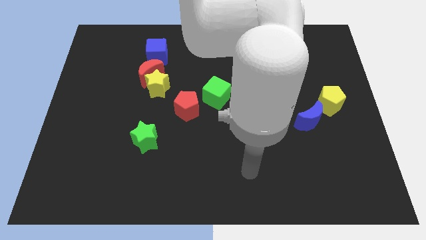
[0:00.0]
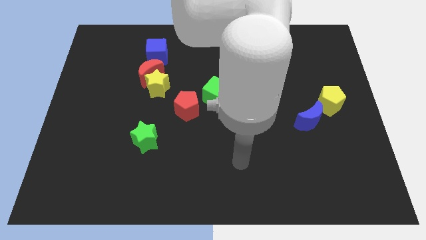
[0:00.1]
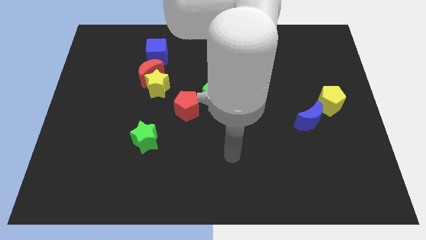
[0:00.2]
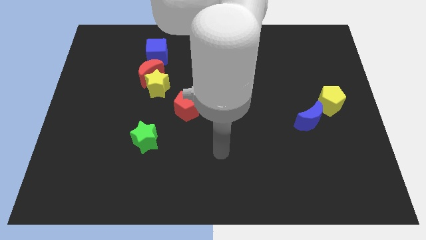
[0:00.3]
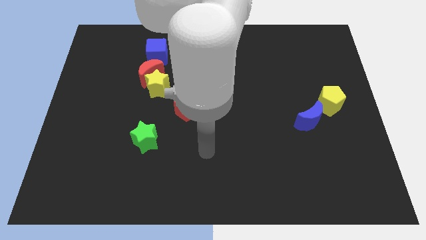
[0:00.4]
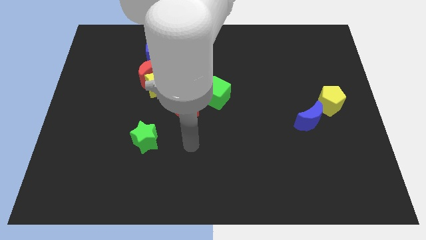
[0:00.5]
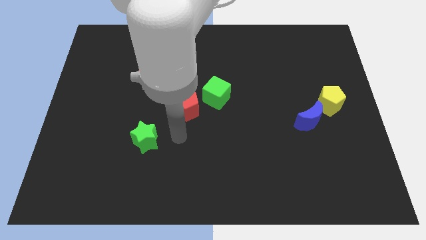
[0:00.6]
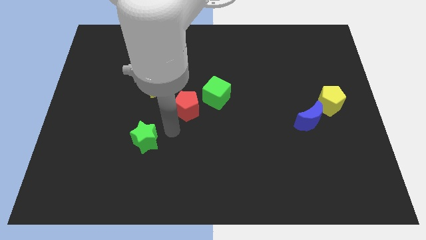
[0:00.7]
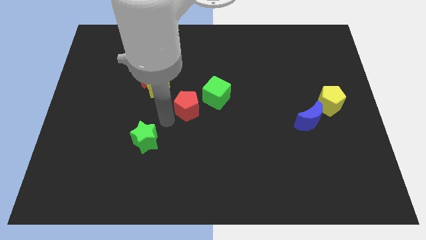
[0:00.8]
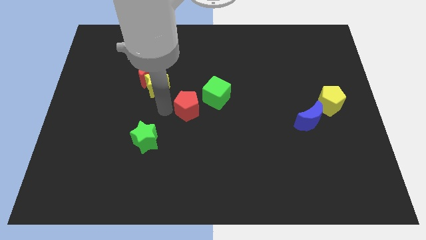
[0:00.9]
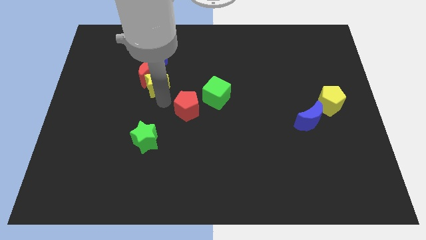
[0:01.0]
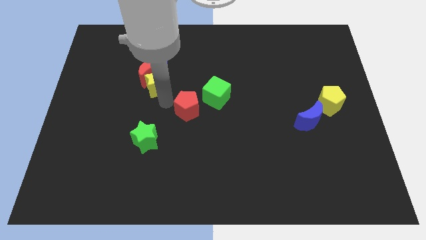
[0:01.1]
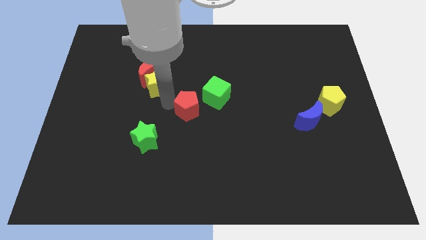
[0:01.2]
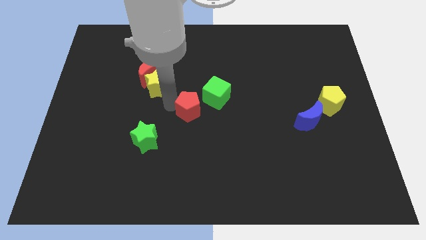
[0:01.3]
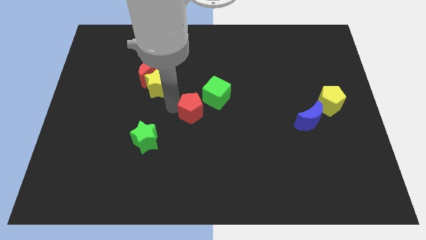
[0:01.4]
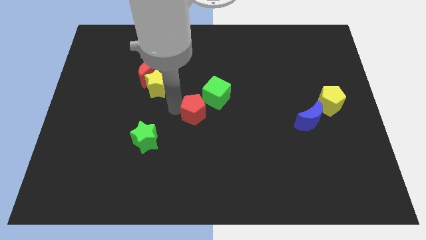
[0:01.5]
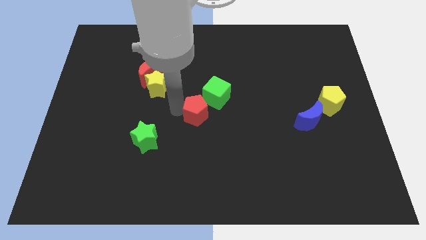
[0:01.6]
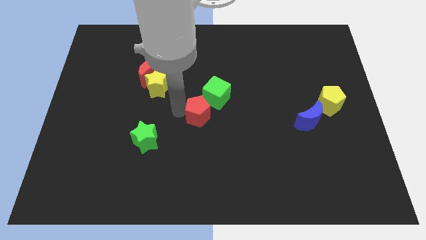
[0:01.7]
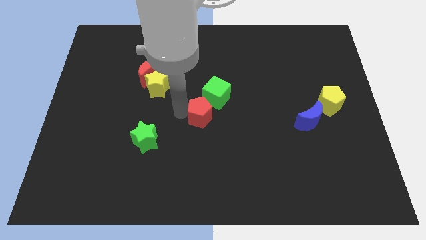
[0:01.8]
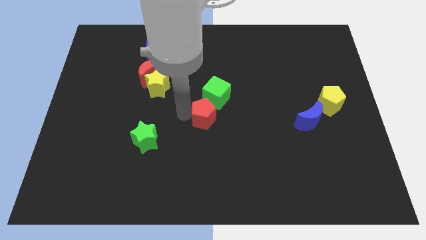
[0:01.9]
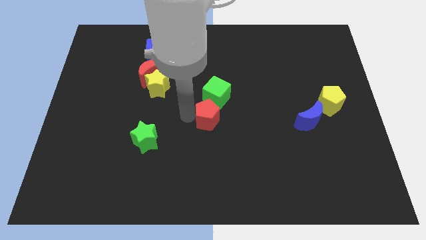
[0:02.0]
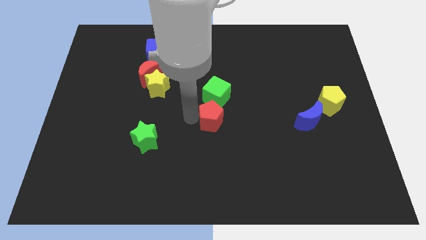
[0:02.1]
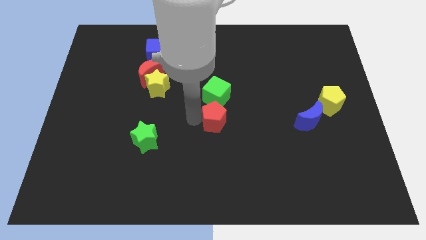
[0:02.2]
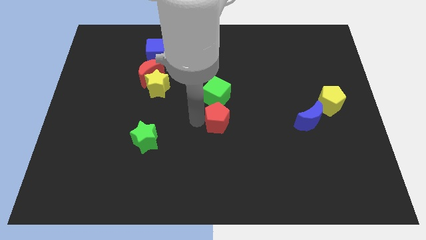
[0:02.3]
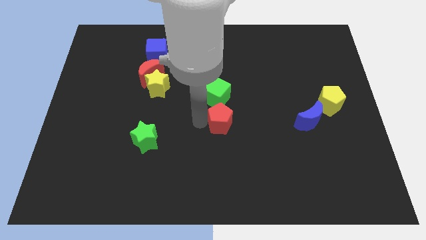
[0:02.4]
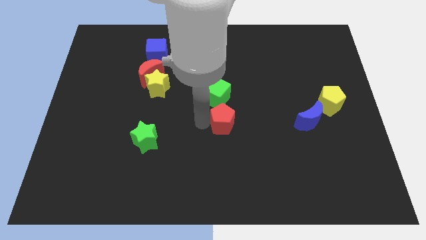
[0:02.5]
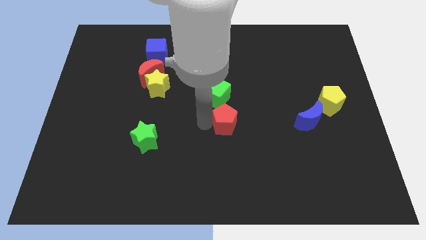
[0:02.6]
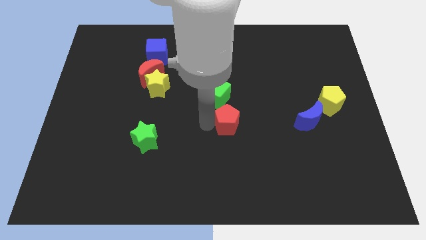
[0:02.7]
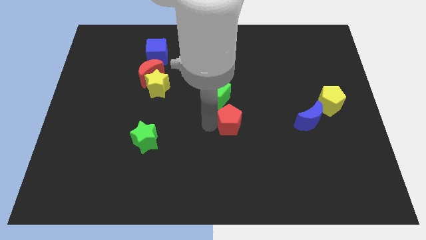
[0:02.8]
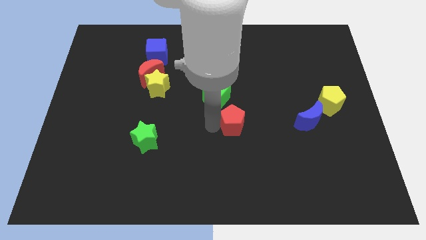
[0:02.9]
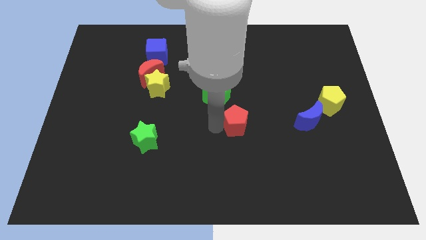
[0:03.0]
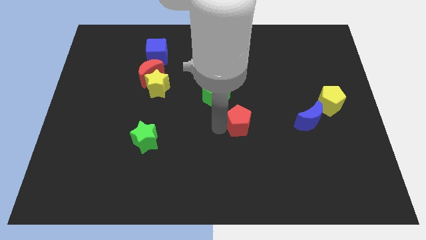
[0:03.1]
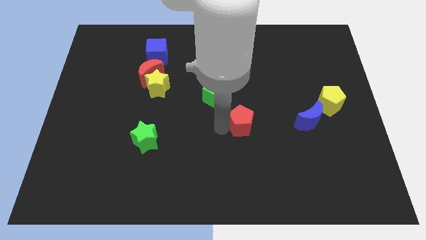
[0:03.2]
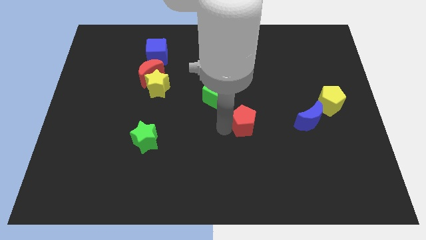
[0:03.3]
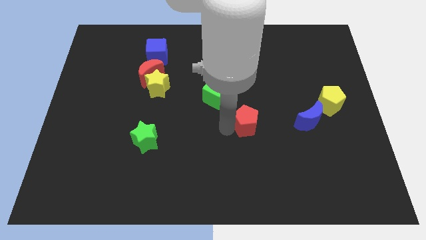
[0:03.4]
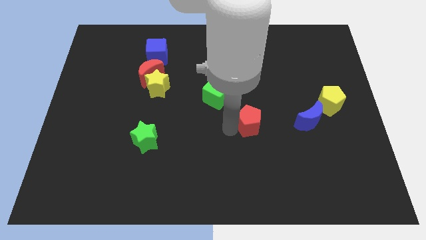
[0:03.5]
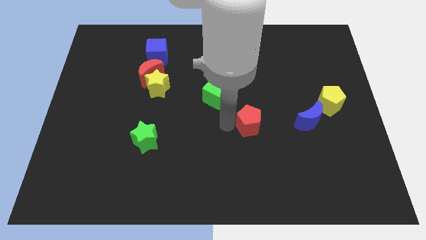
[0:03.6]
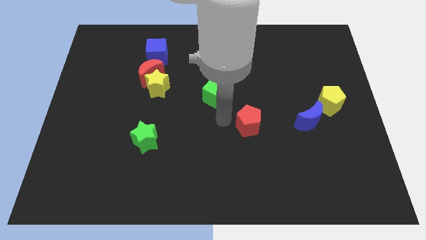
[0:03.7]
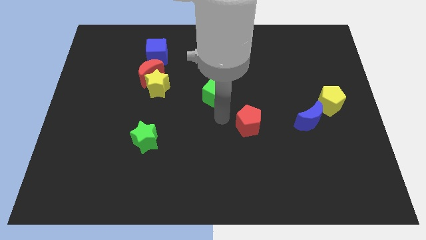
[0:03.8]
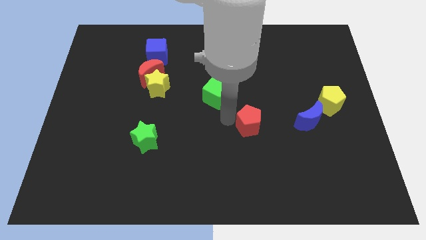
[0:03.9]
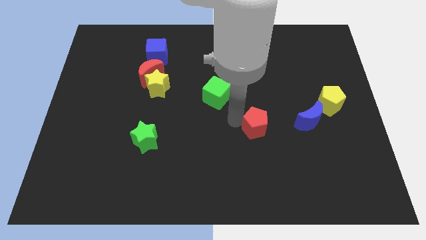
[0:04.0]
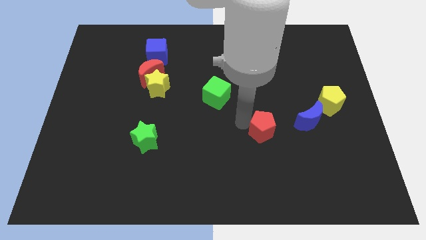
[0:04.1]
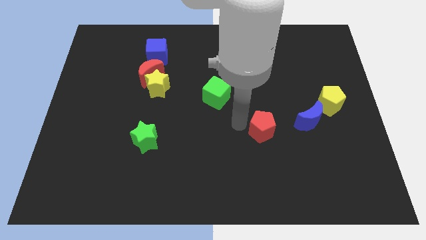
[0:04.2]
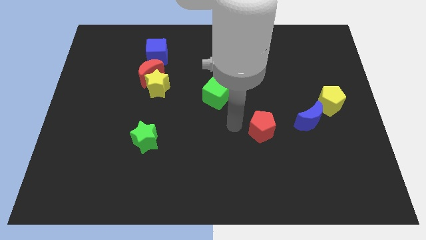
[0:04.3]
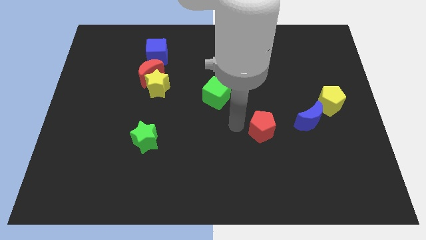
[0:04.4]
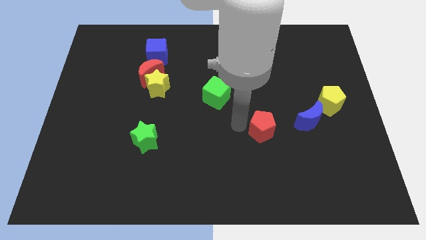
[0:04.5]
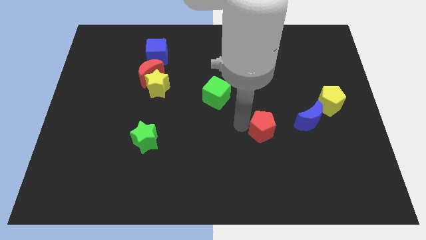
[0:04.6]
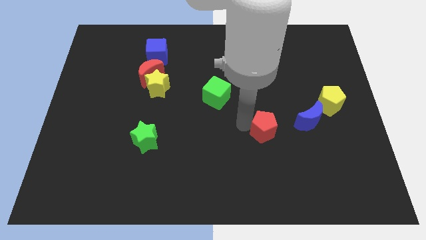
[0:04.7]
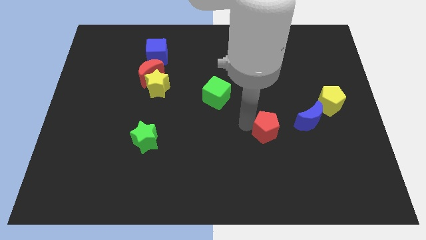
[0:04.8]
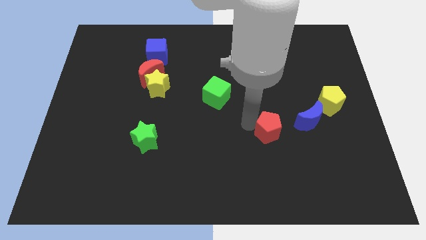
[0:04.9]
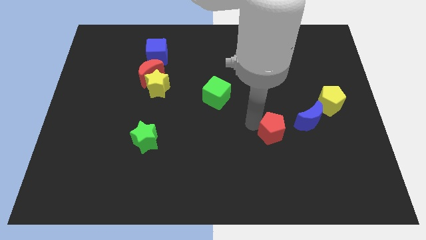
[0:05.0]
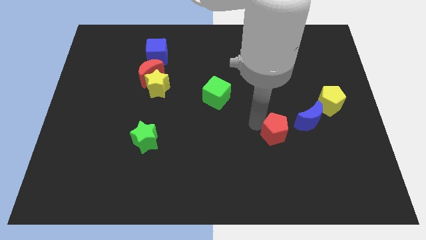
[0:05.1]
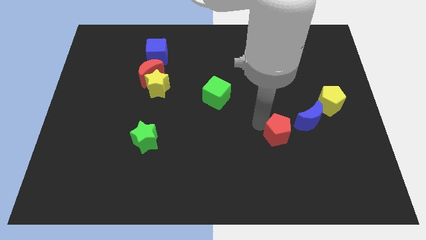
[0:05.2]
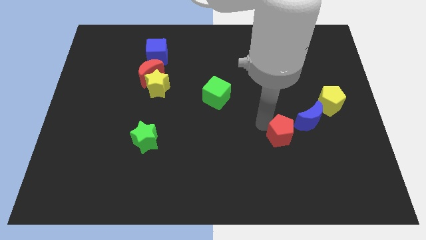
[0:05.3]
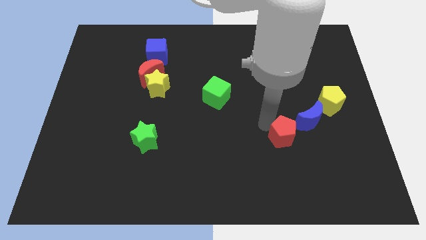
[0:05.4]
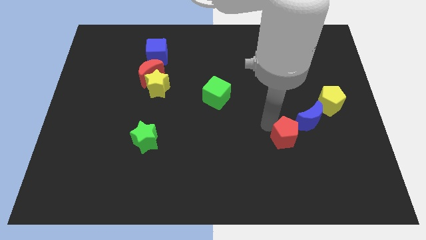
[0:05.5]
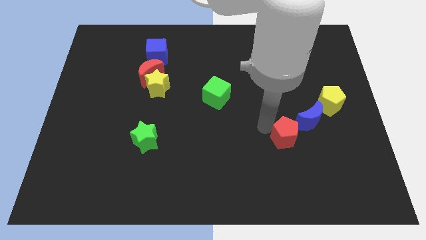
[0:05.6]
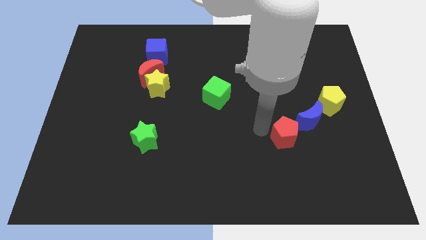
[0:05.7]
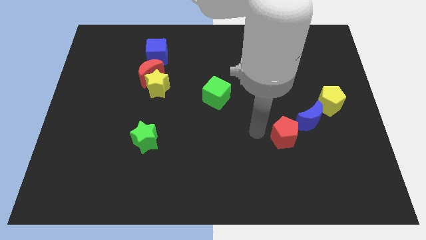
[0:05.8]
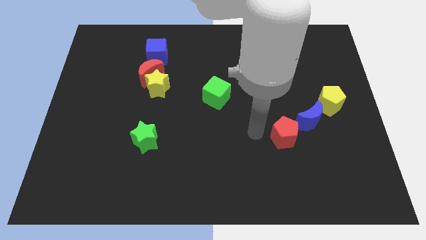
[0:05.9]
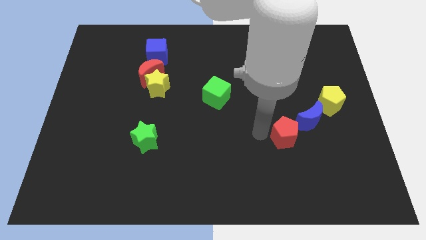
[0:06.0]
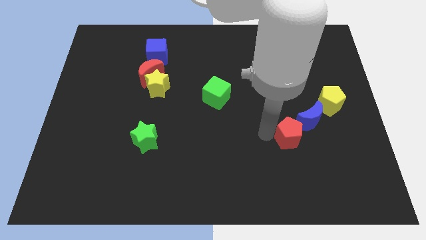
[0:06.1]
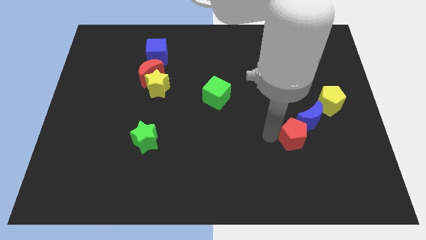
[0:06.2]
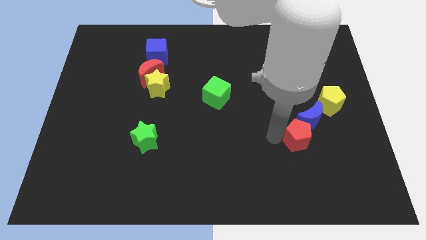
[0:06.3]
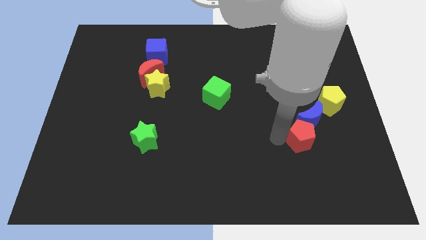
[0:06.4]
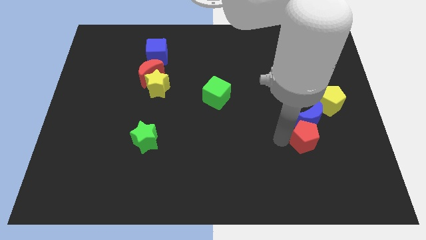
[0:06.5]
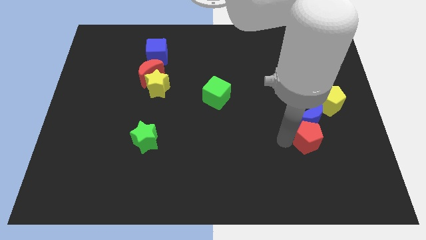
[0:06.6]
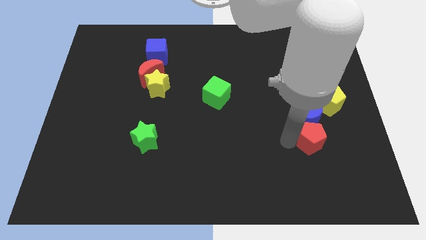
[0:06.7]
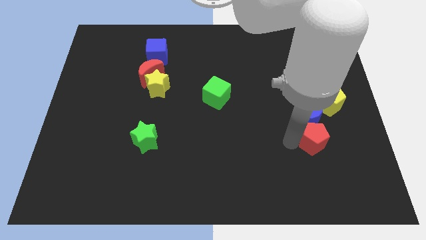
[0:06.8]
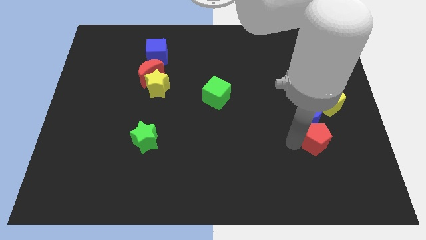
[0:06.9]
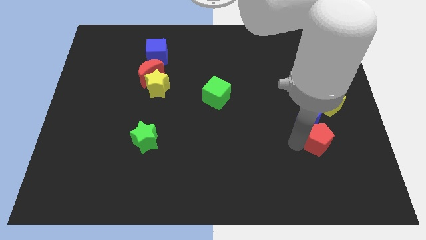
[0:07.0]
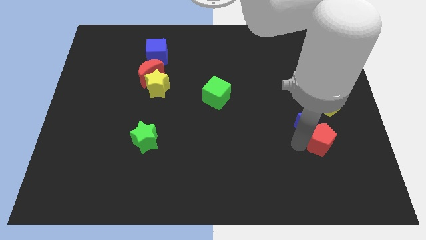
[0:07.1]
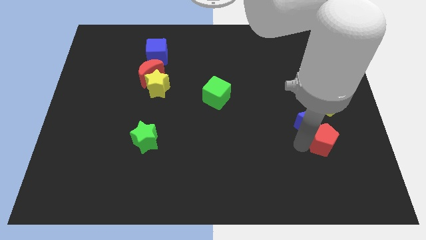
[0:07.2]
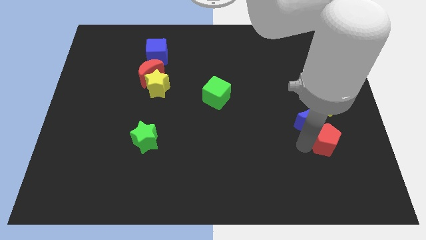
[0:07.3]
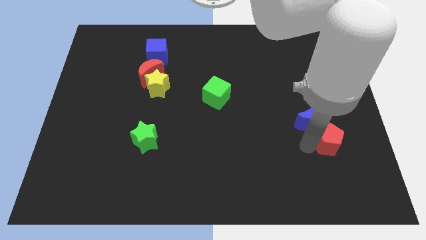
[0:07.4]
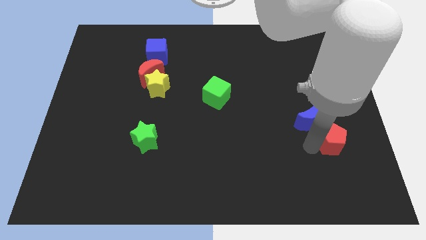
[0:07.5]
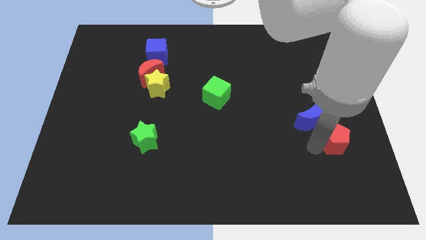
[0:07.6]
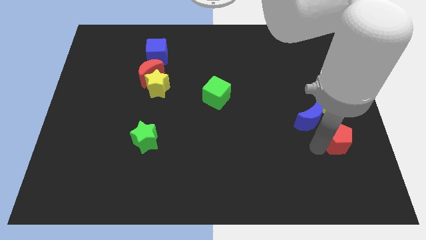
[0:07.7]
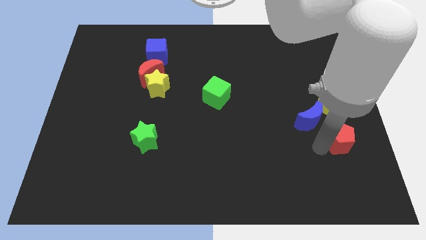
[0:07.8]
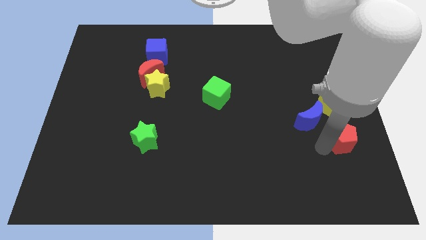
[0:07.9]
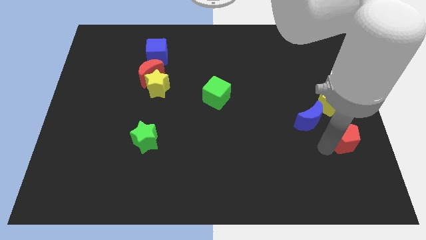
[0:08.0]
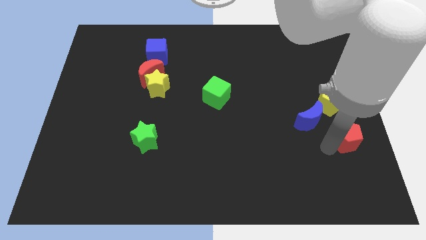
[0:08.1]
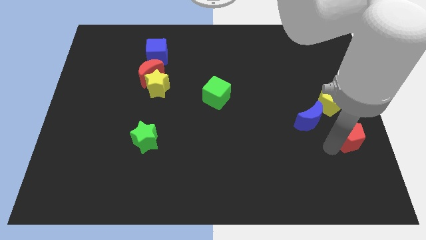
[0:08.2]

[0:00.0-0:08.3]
push the red pentagon to the center right
